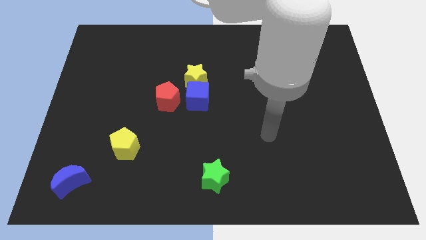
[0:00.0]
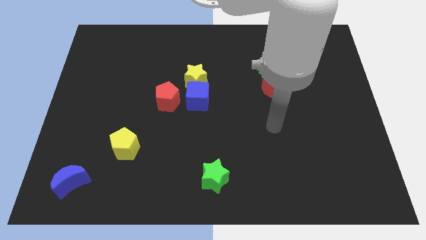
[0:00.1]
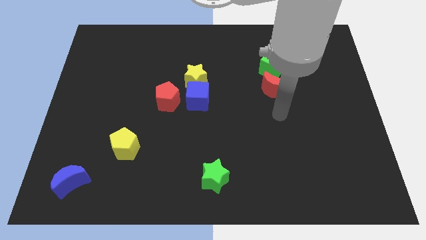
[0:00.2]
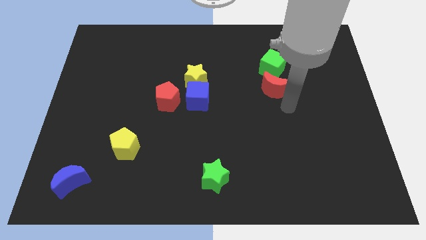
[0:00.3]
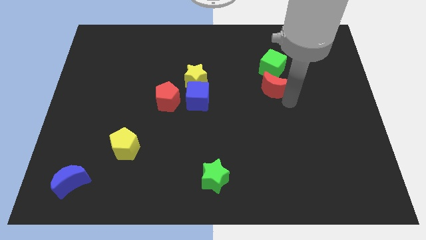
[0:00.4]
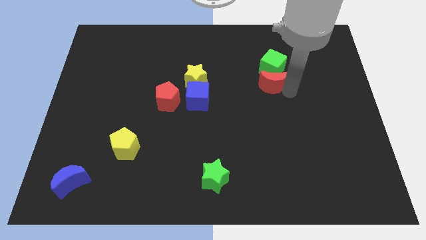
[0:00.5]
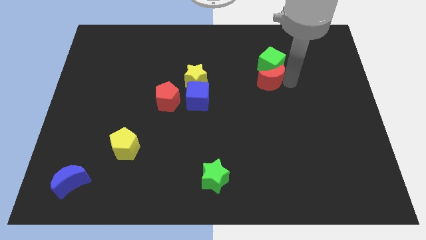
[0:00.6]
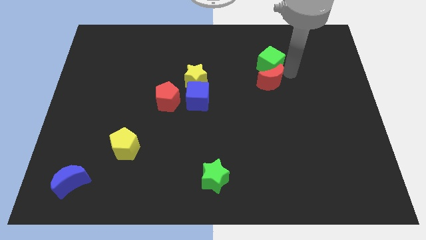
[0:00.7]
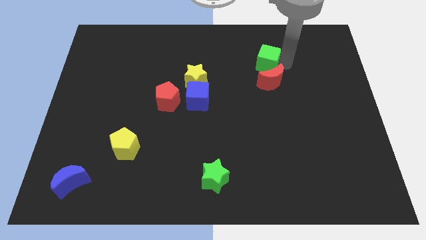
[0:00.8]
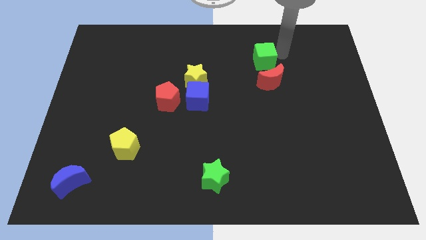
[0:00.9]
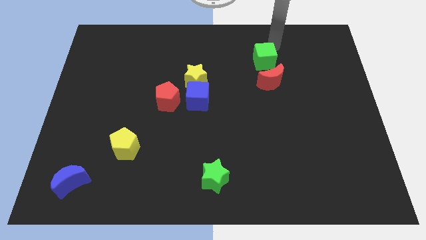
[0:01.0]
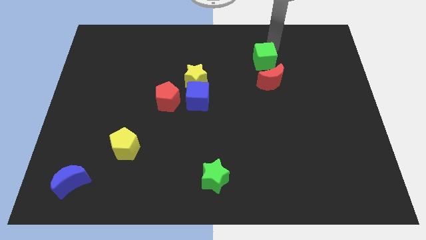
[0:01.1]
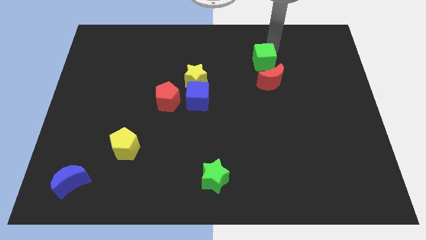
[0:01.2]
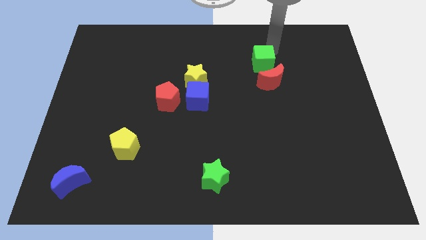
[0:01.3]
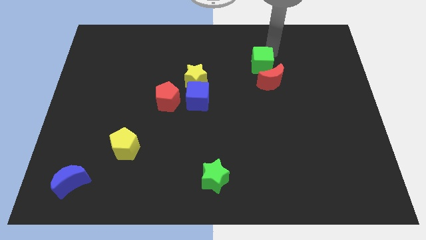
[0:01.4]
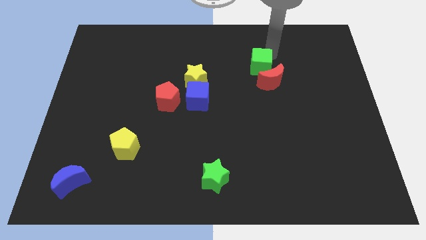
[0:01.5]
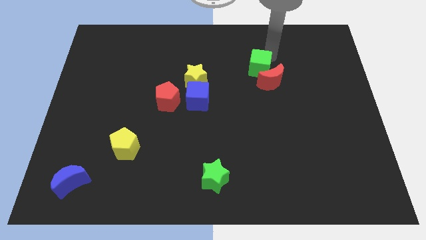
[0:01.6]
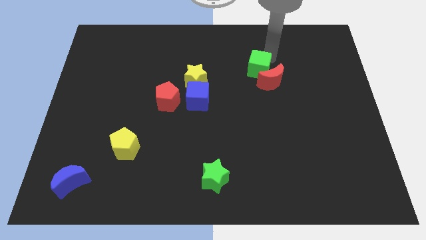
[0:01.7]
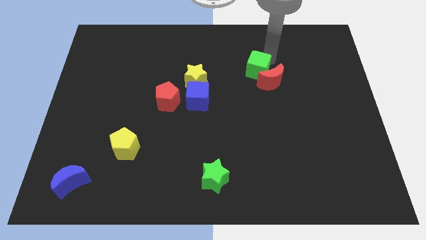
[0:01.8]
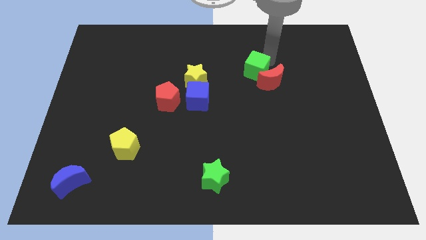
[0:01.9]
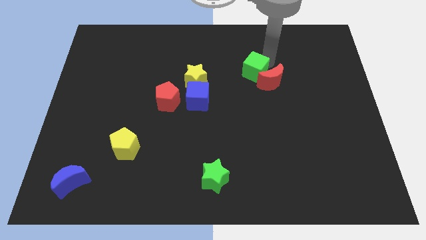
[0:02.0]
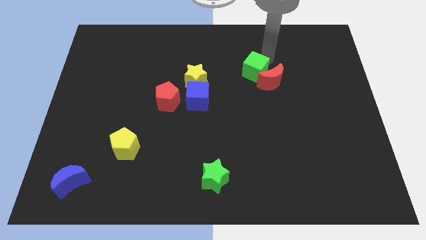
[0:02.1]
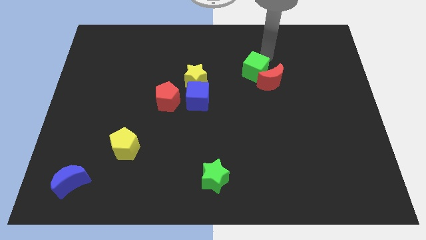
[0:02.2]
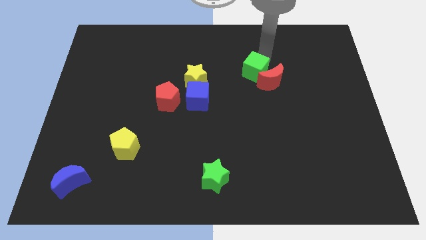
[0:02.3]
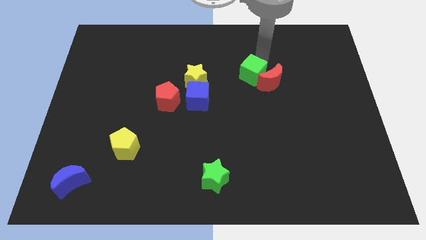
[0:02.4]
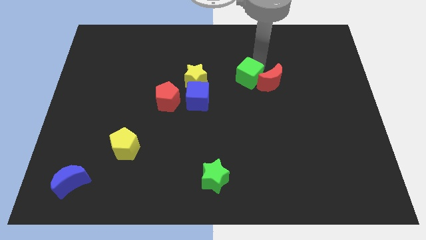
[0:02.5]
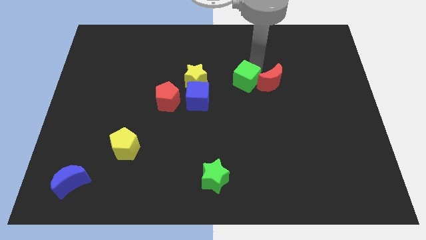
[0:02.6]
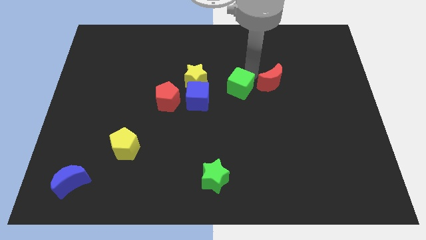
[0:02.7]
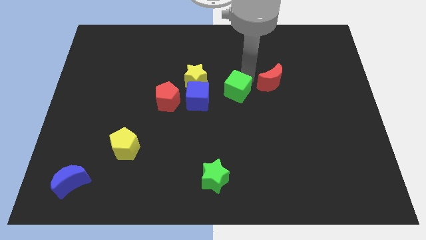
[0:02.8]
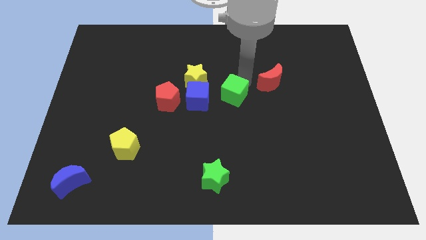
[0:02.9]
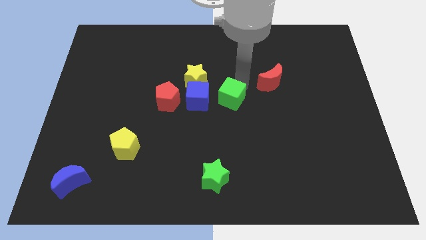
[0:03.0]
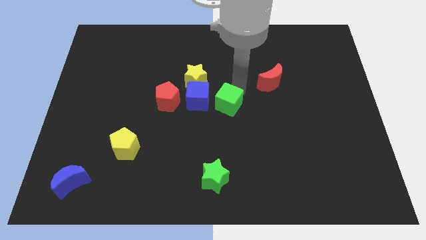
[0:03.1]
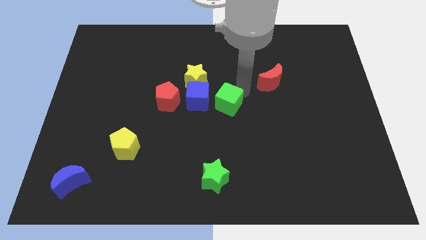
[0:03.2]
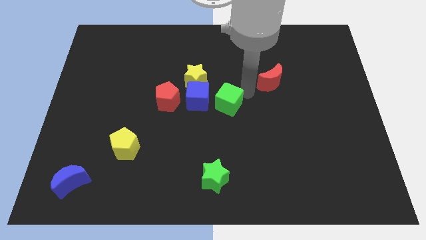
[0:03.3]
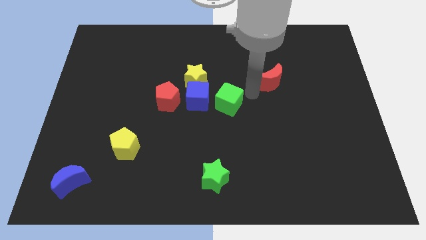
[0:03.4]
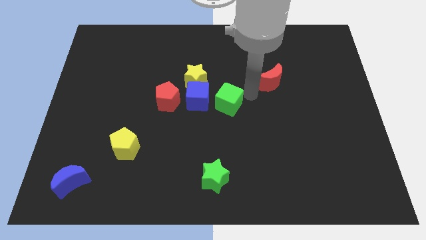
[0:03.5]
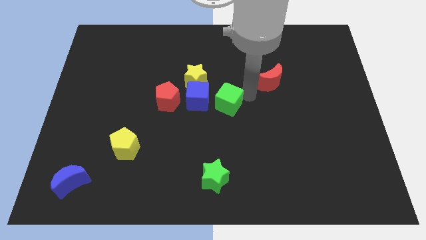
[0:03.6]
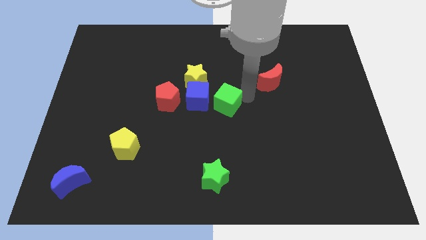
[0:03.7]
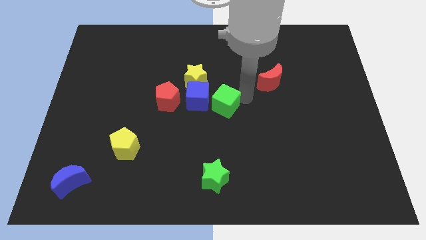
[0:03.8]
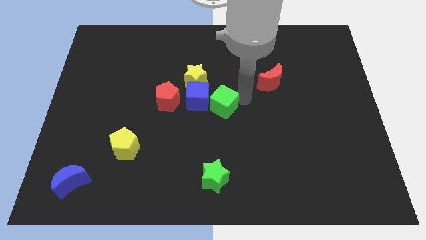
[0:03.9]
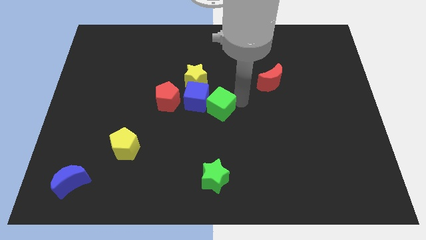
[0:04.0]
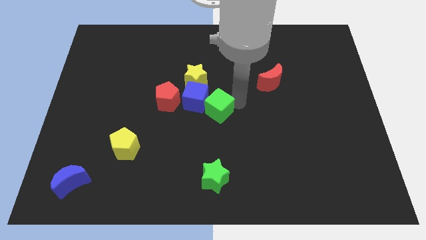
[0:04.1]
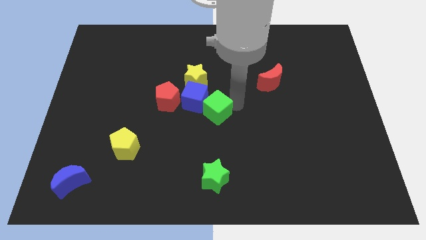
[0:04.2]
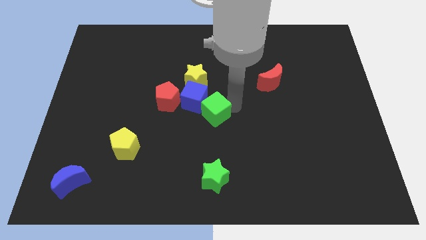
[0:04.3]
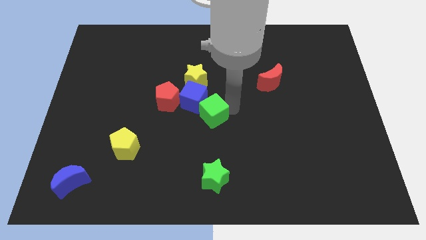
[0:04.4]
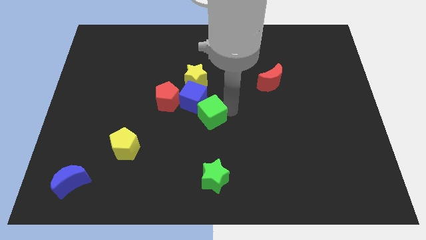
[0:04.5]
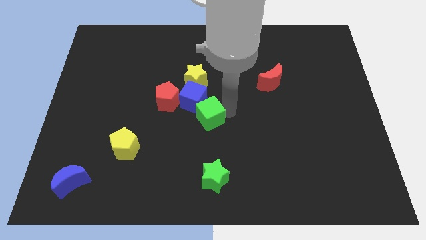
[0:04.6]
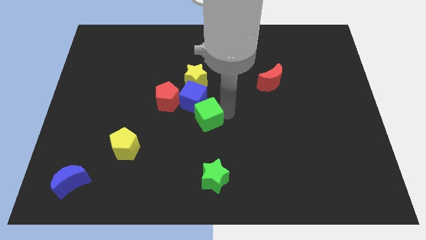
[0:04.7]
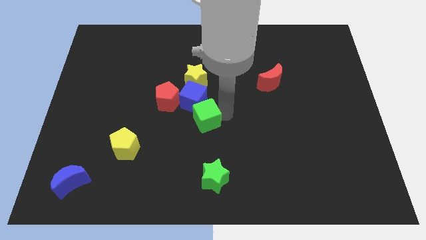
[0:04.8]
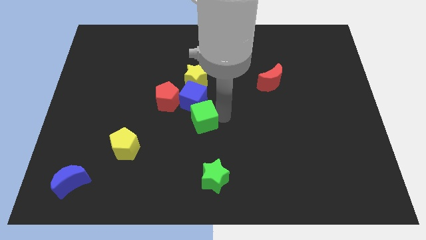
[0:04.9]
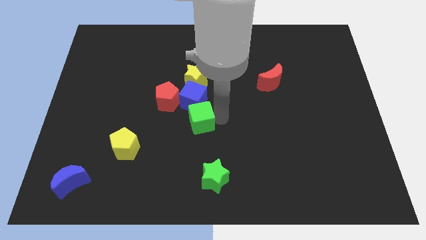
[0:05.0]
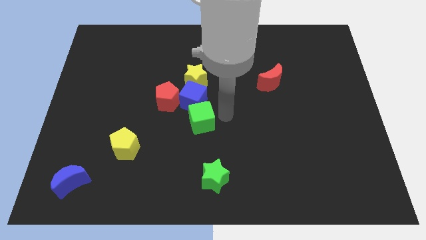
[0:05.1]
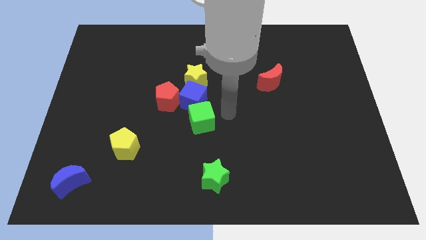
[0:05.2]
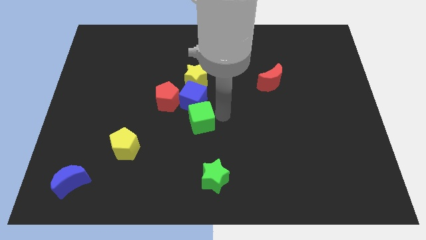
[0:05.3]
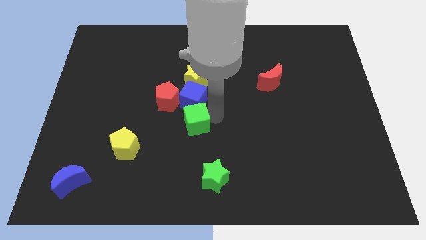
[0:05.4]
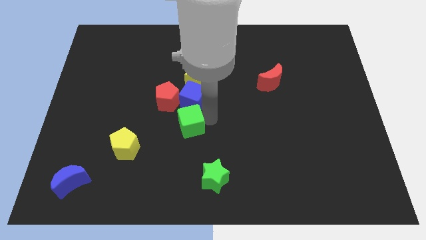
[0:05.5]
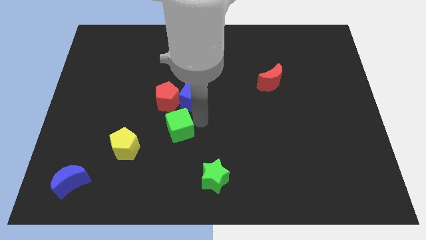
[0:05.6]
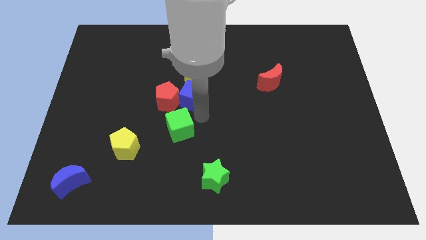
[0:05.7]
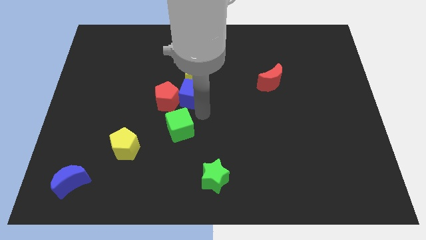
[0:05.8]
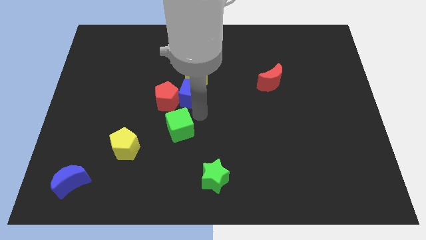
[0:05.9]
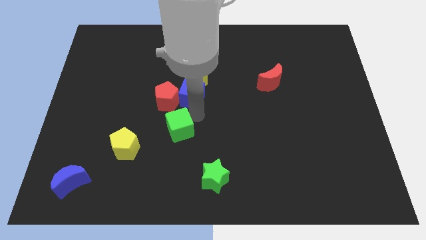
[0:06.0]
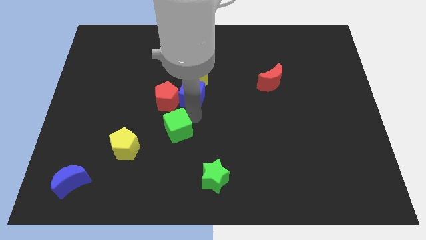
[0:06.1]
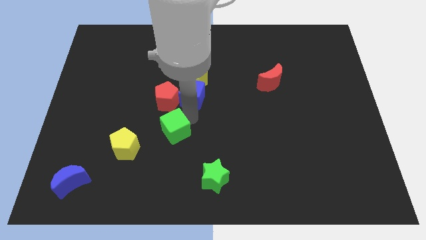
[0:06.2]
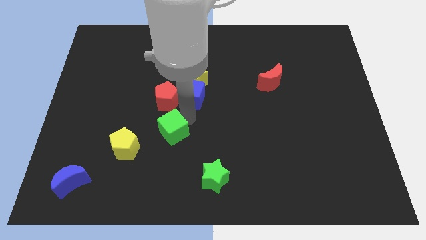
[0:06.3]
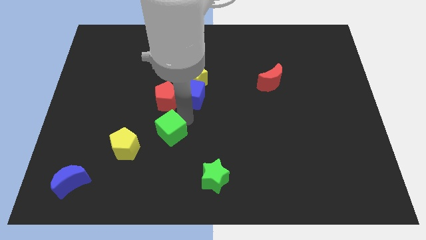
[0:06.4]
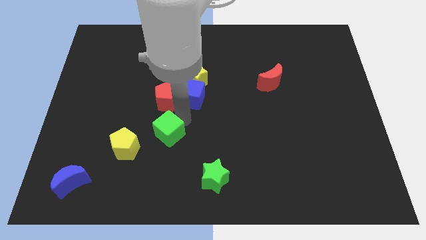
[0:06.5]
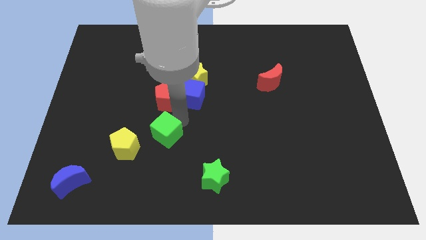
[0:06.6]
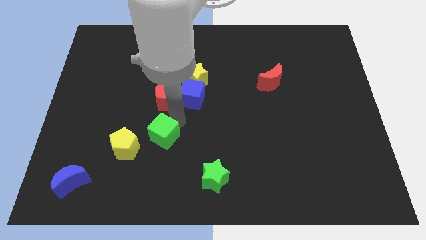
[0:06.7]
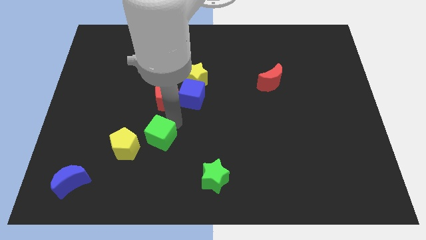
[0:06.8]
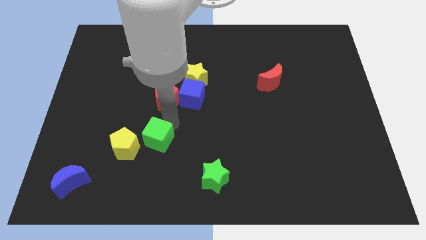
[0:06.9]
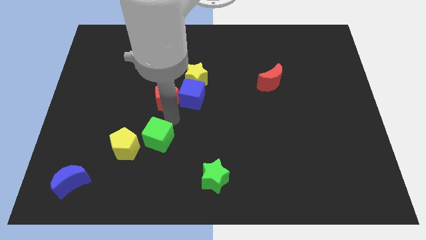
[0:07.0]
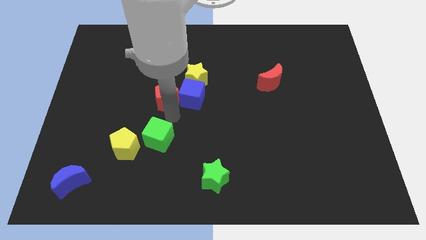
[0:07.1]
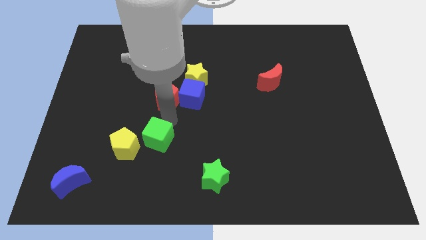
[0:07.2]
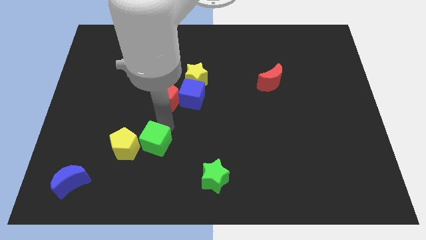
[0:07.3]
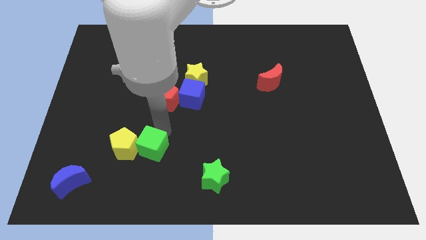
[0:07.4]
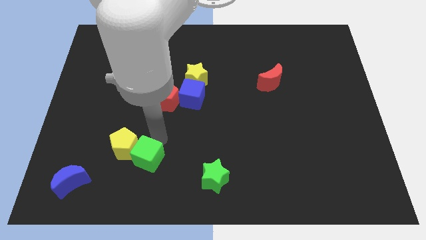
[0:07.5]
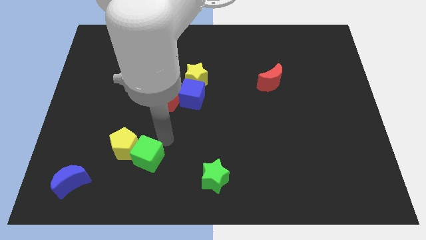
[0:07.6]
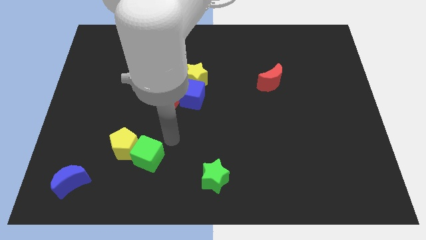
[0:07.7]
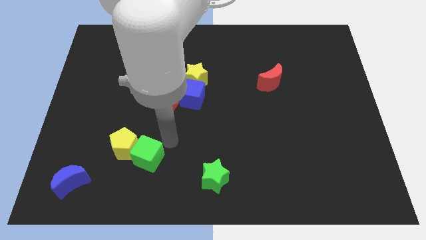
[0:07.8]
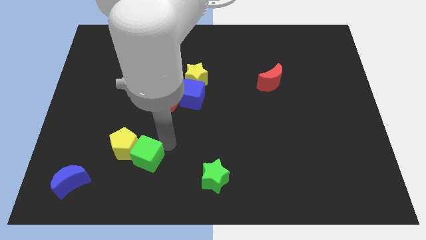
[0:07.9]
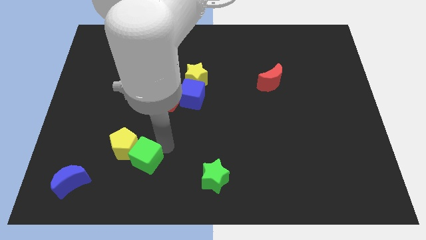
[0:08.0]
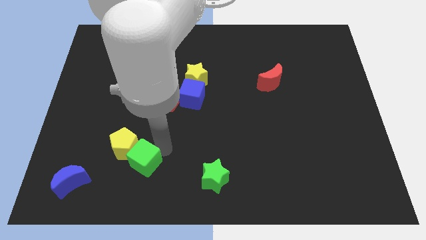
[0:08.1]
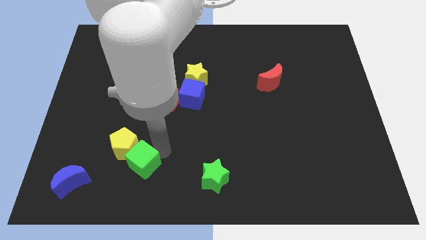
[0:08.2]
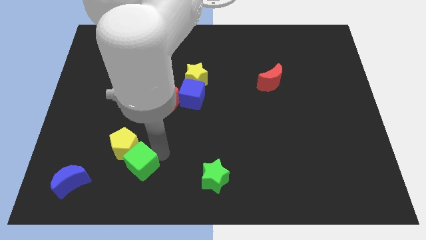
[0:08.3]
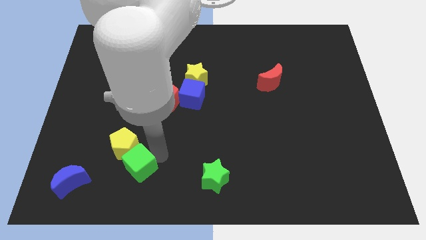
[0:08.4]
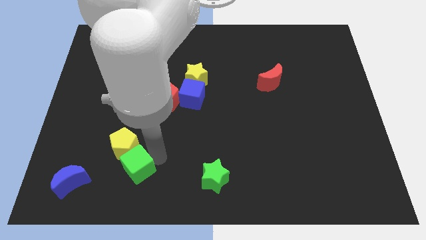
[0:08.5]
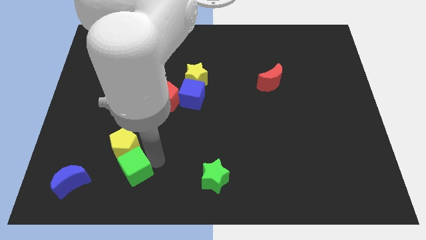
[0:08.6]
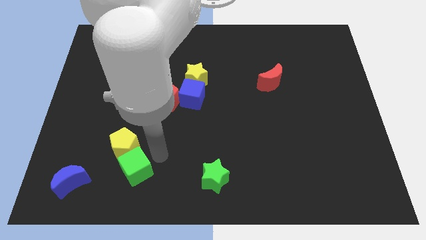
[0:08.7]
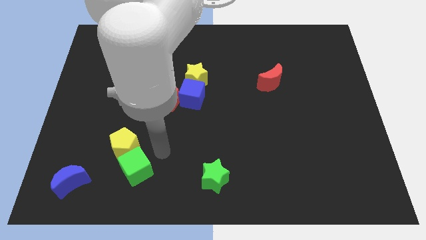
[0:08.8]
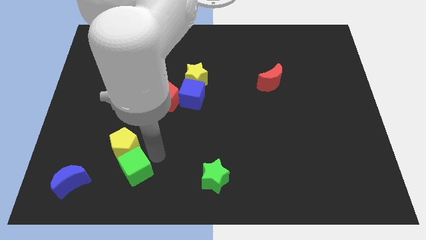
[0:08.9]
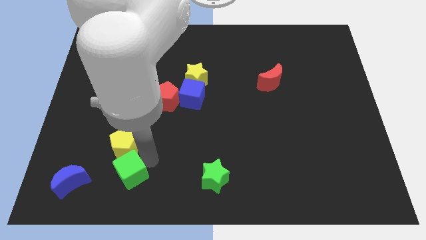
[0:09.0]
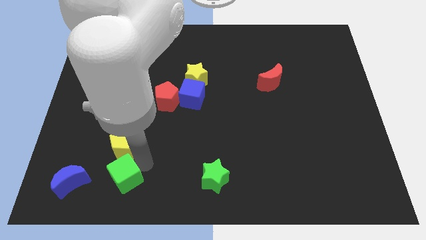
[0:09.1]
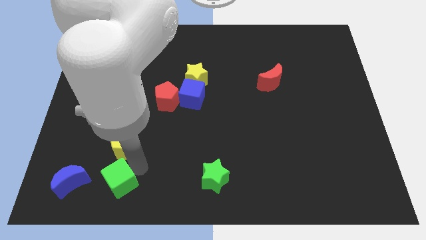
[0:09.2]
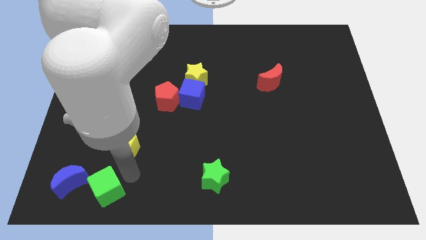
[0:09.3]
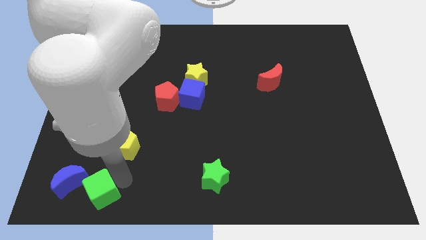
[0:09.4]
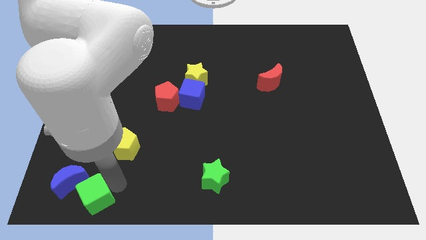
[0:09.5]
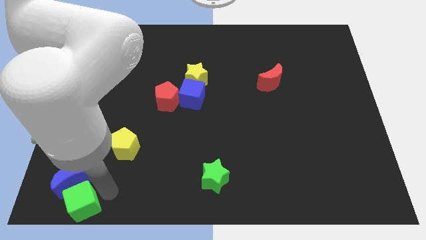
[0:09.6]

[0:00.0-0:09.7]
slide the green cube to the bottom left
